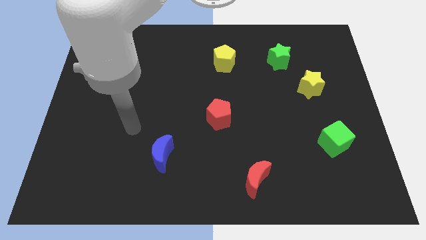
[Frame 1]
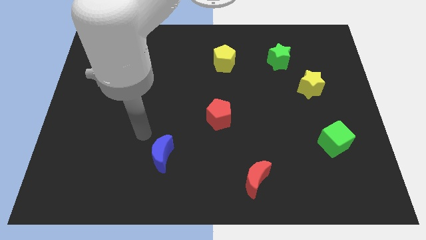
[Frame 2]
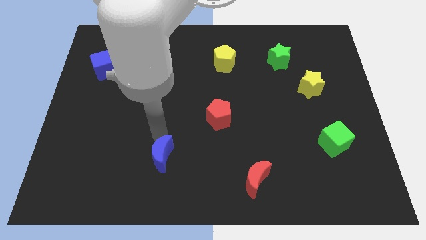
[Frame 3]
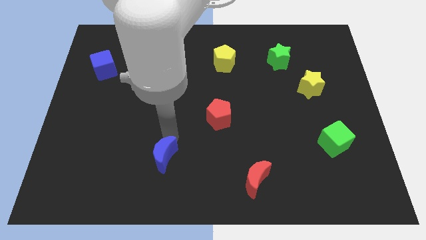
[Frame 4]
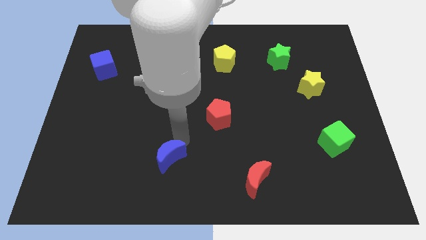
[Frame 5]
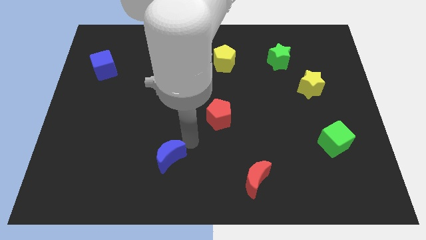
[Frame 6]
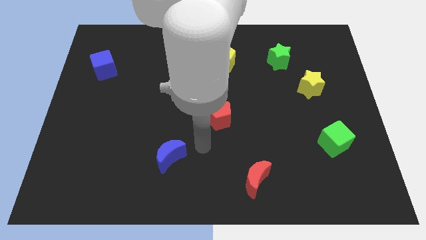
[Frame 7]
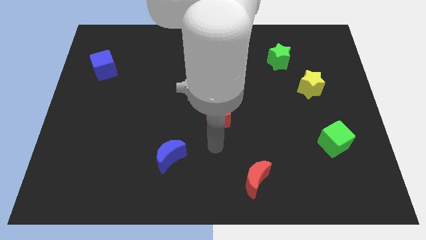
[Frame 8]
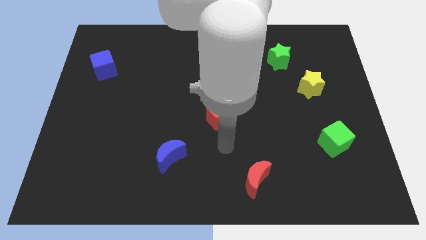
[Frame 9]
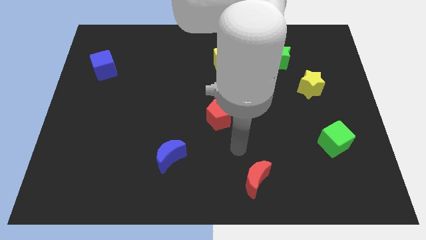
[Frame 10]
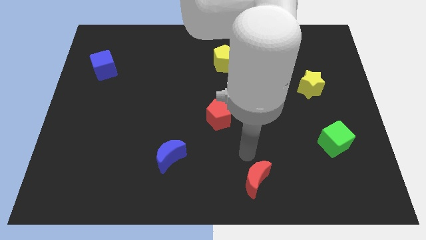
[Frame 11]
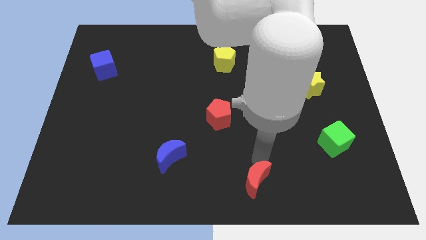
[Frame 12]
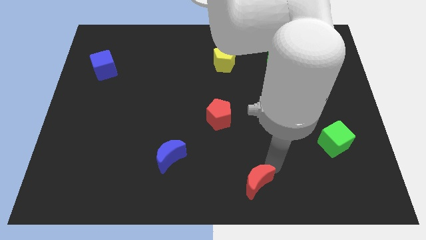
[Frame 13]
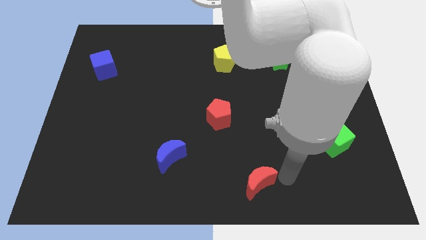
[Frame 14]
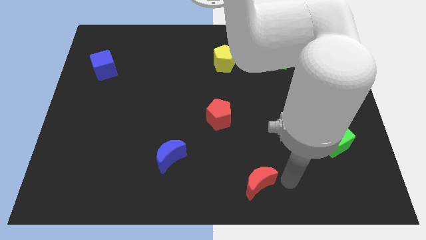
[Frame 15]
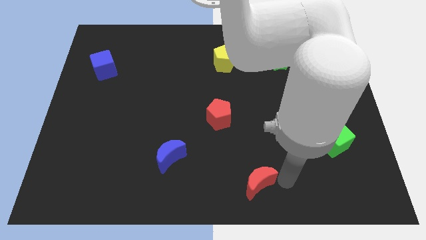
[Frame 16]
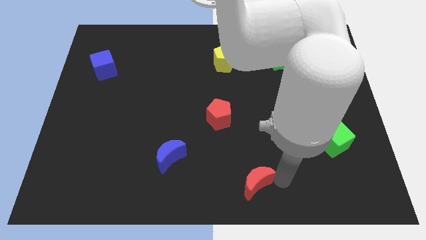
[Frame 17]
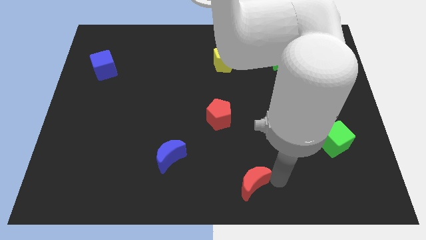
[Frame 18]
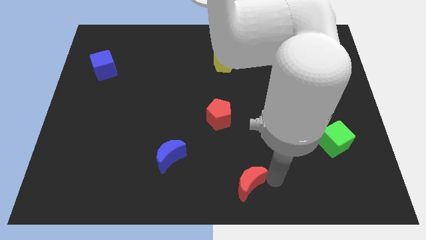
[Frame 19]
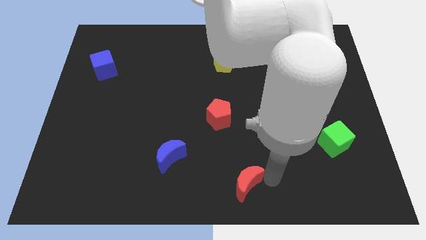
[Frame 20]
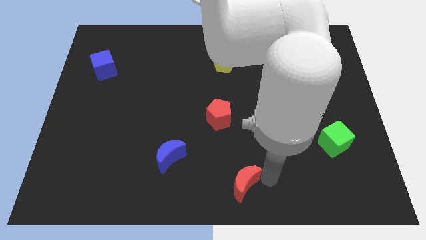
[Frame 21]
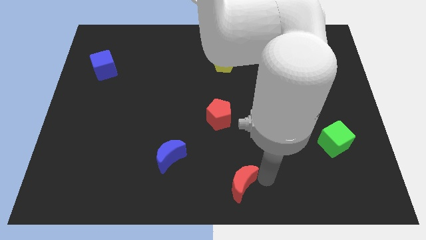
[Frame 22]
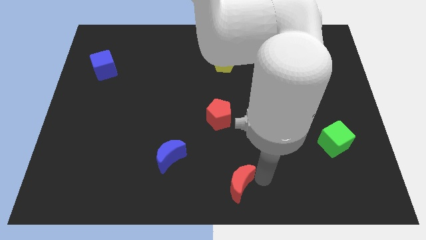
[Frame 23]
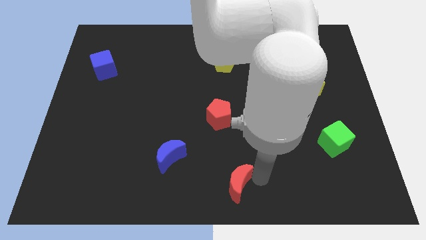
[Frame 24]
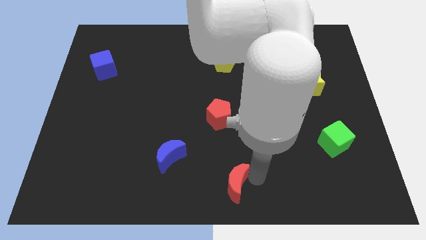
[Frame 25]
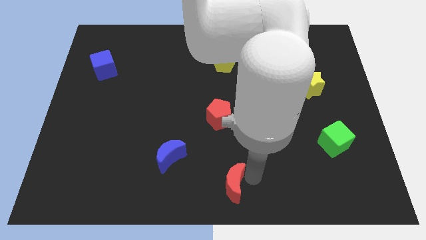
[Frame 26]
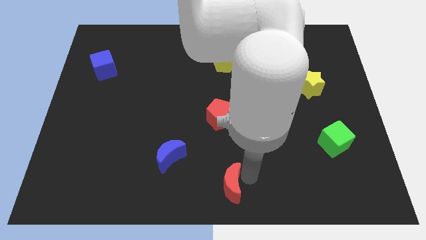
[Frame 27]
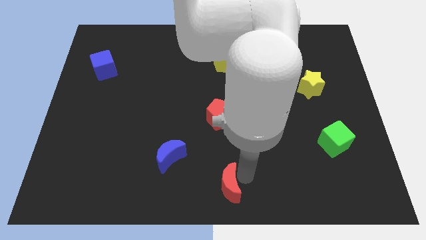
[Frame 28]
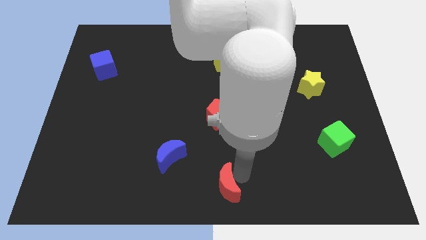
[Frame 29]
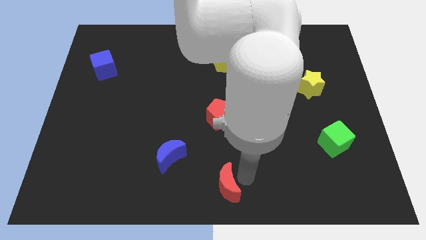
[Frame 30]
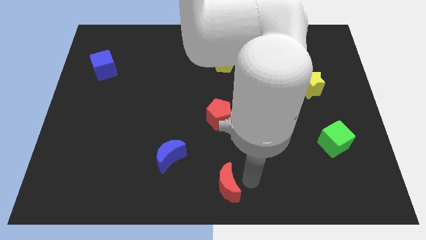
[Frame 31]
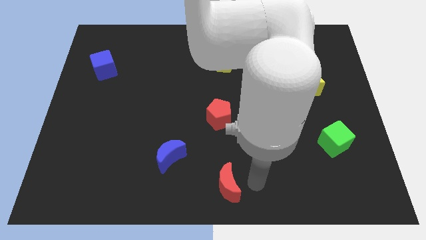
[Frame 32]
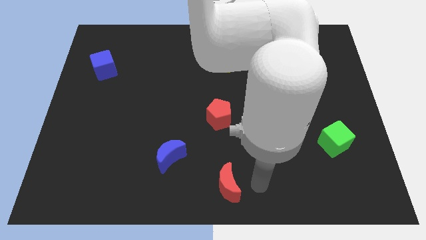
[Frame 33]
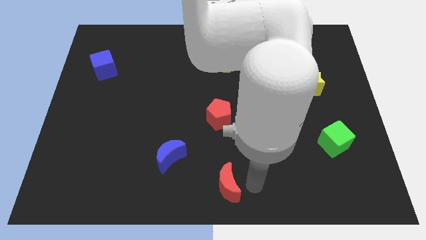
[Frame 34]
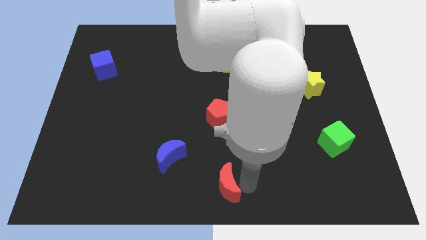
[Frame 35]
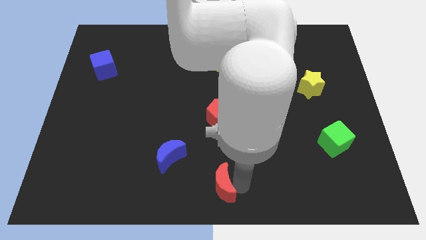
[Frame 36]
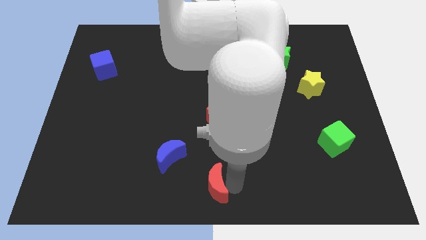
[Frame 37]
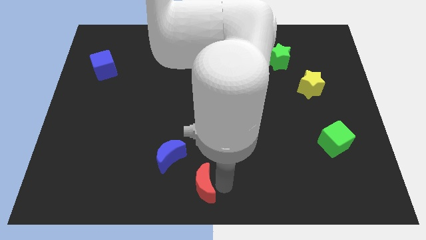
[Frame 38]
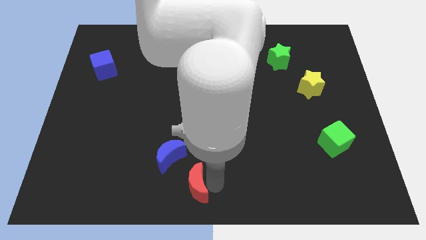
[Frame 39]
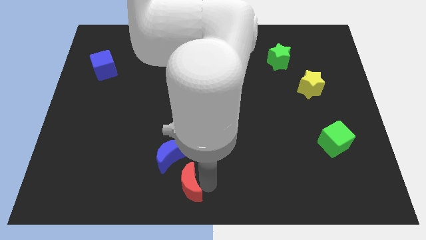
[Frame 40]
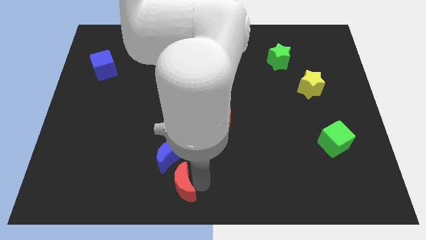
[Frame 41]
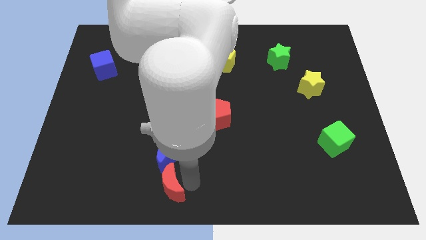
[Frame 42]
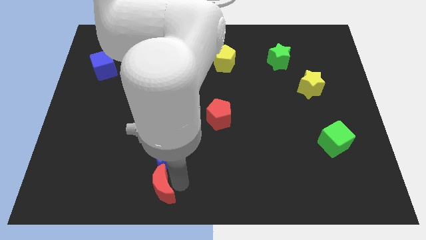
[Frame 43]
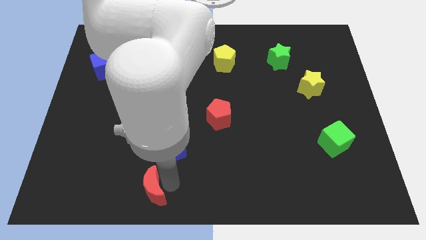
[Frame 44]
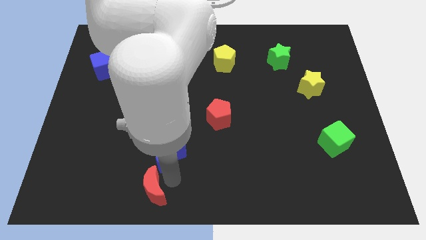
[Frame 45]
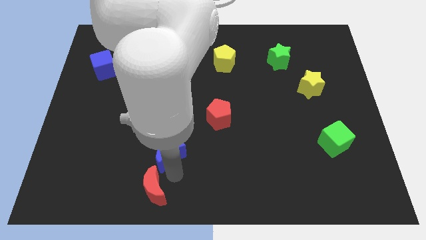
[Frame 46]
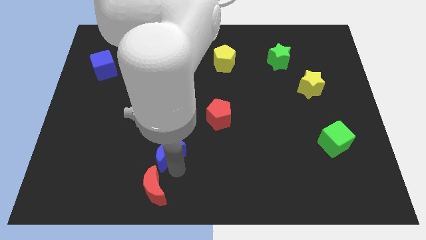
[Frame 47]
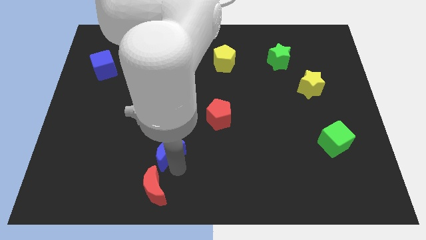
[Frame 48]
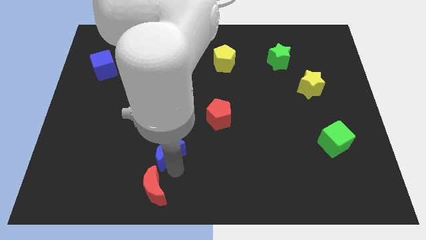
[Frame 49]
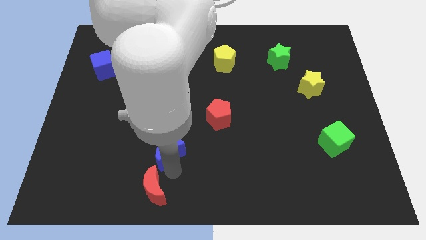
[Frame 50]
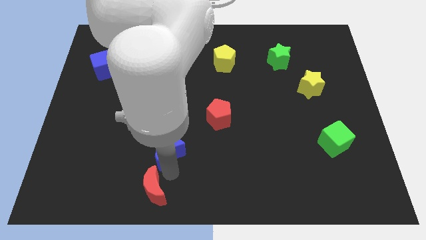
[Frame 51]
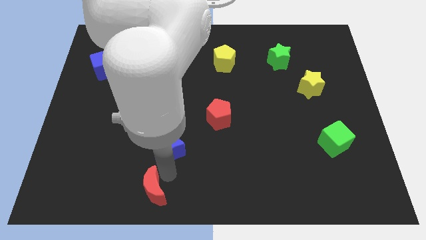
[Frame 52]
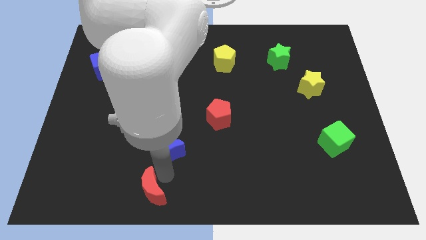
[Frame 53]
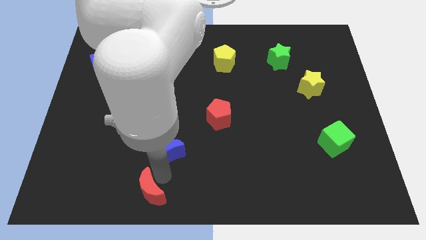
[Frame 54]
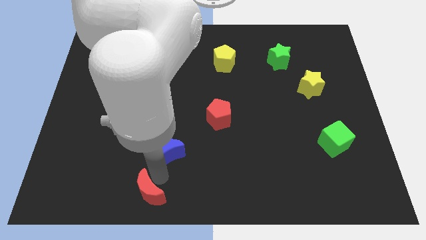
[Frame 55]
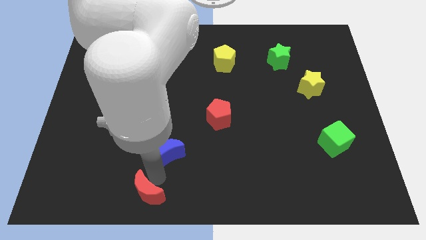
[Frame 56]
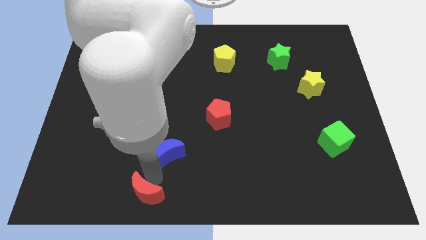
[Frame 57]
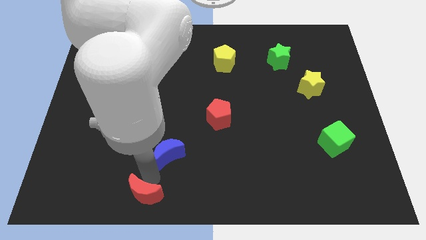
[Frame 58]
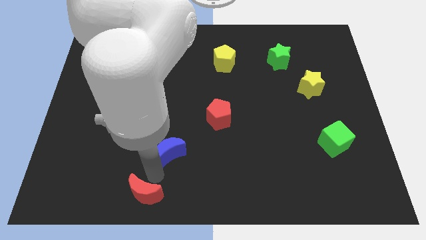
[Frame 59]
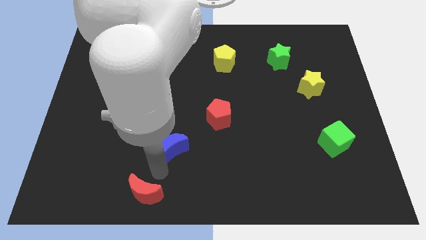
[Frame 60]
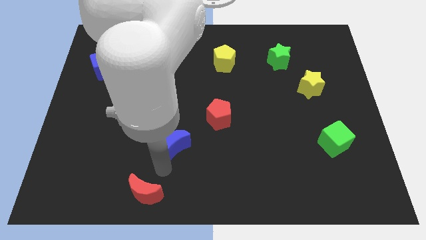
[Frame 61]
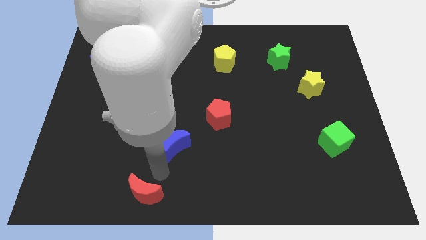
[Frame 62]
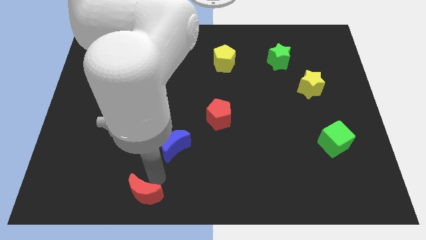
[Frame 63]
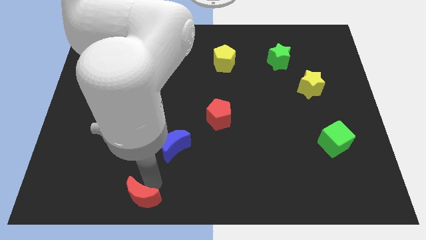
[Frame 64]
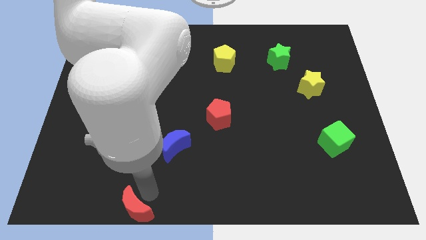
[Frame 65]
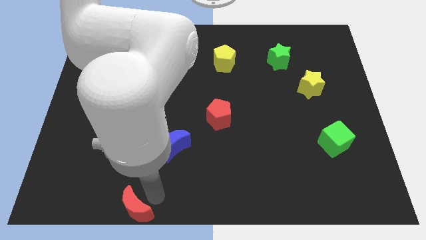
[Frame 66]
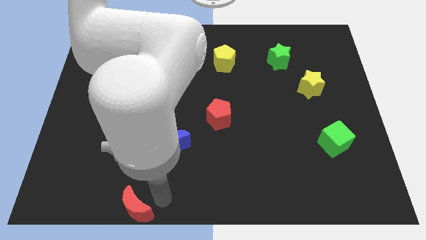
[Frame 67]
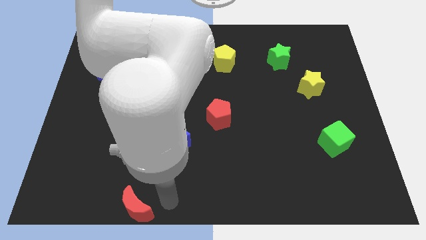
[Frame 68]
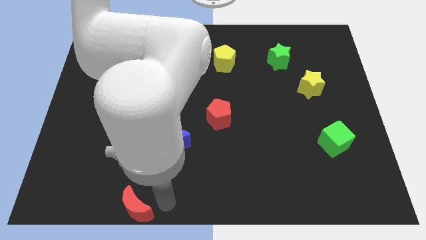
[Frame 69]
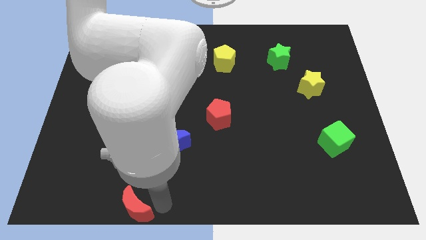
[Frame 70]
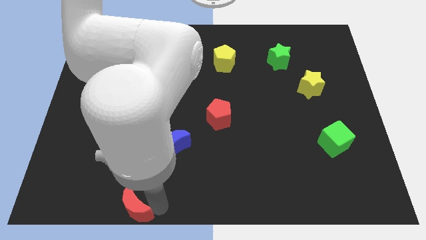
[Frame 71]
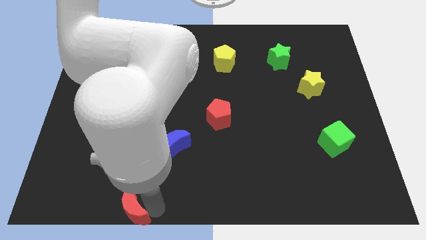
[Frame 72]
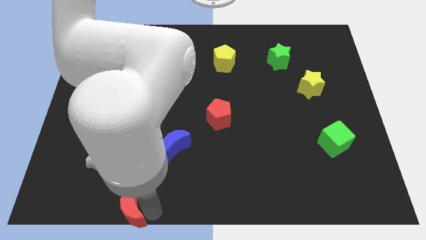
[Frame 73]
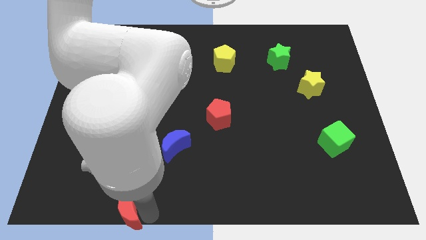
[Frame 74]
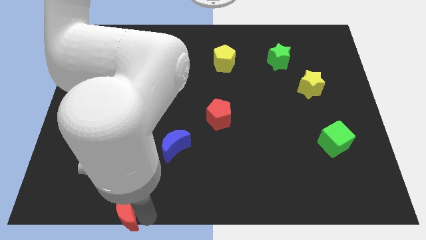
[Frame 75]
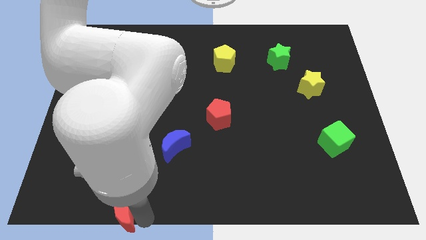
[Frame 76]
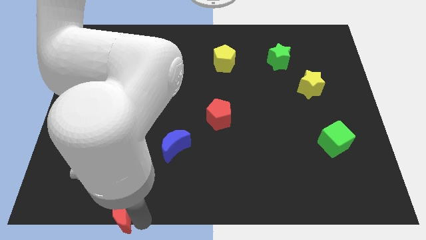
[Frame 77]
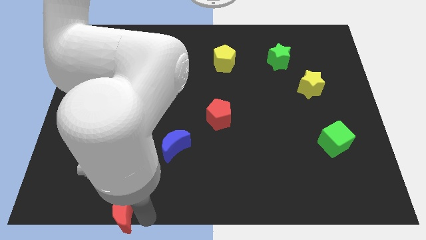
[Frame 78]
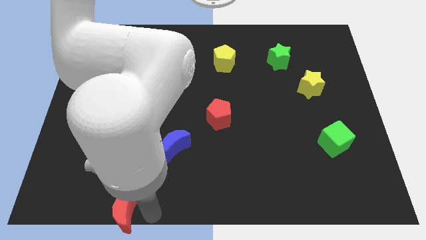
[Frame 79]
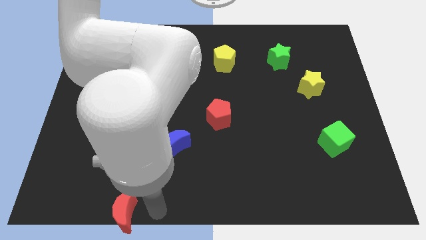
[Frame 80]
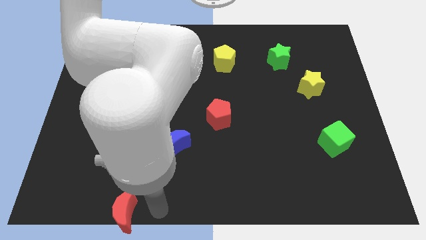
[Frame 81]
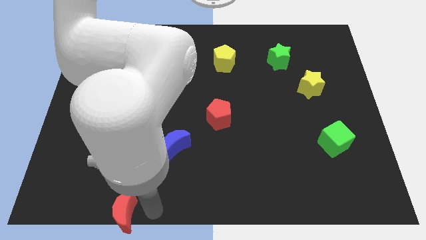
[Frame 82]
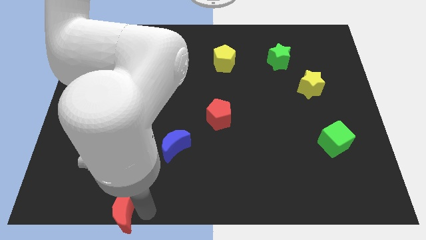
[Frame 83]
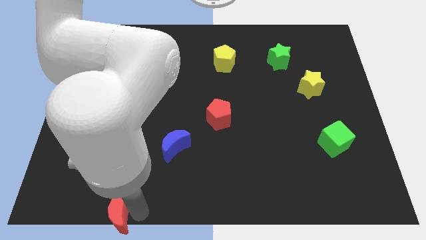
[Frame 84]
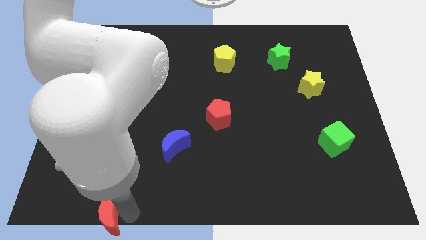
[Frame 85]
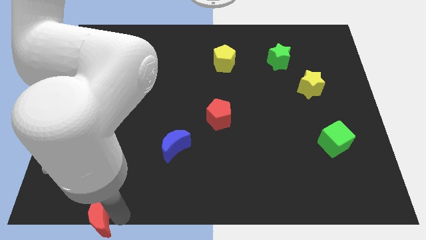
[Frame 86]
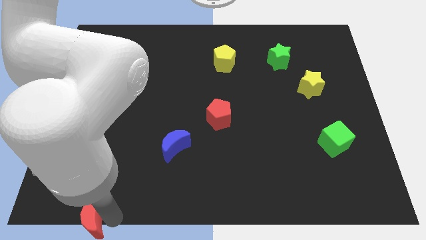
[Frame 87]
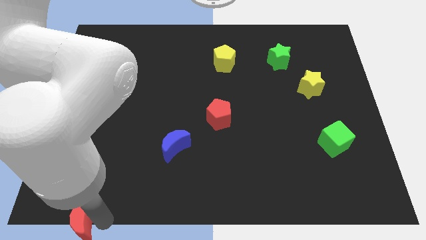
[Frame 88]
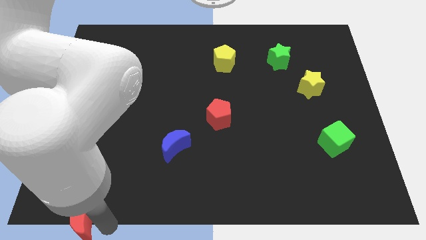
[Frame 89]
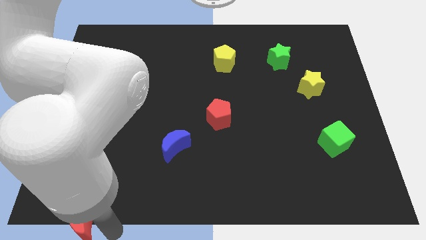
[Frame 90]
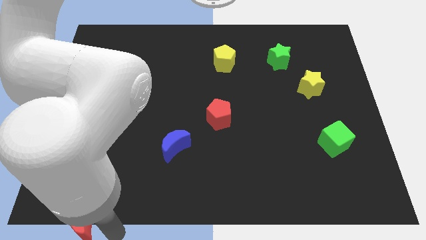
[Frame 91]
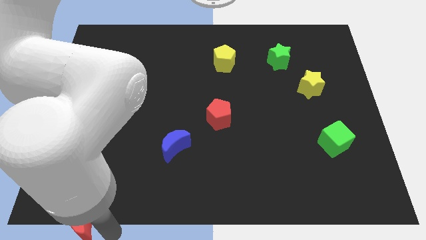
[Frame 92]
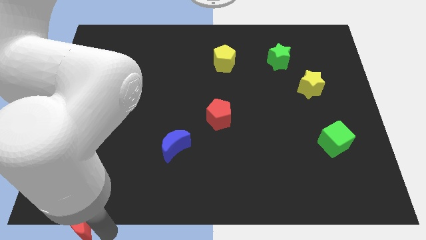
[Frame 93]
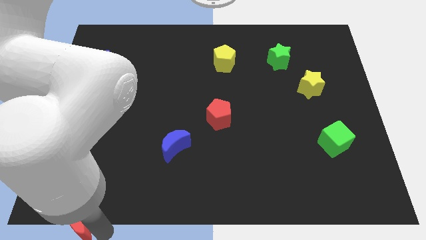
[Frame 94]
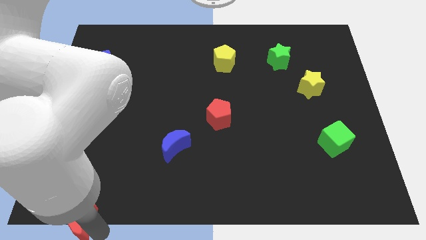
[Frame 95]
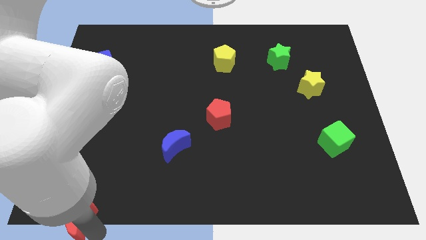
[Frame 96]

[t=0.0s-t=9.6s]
put the red moon to the lower left corner
